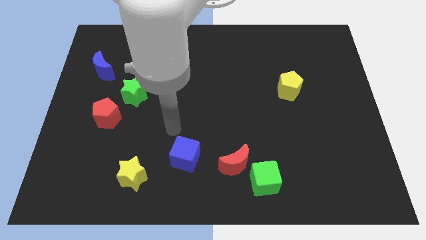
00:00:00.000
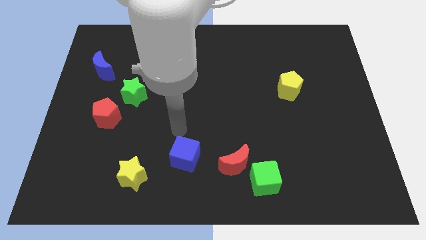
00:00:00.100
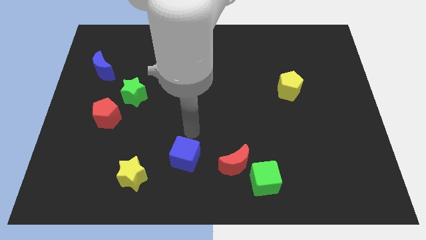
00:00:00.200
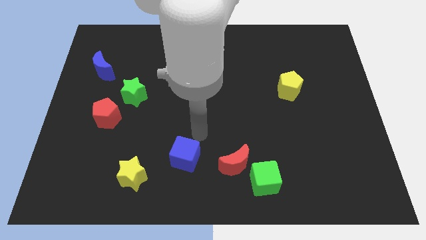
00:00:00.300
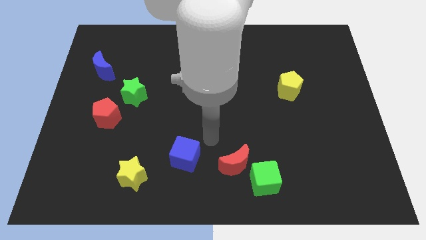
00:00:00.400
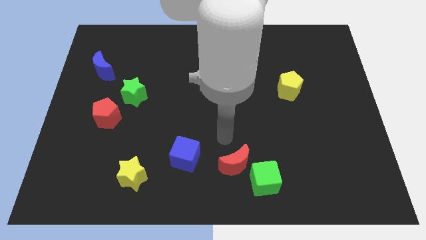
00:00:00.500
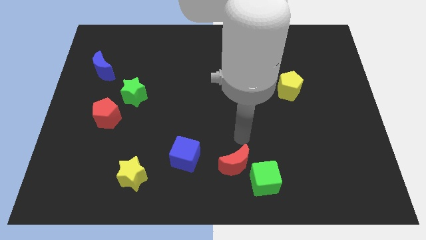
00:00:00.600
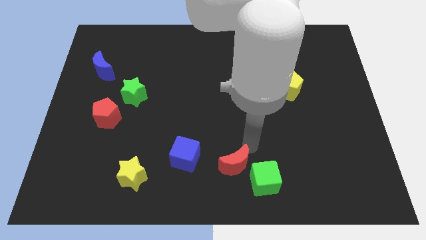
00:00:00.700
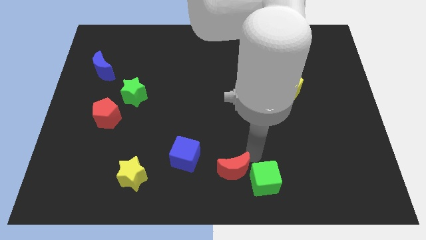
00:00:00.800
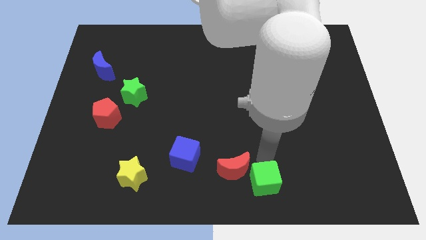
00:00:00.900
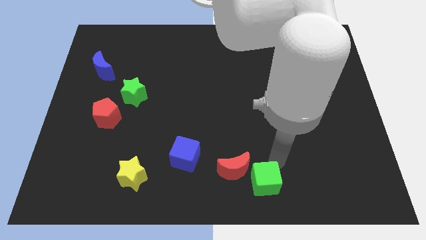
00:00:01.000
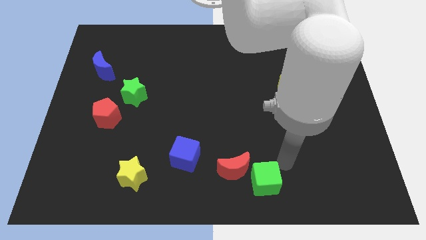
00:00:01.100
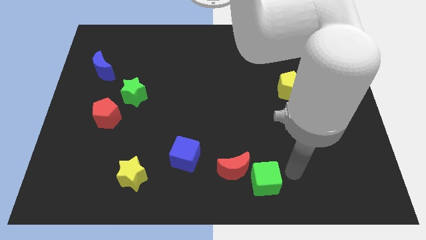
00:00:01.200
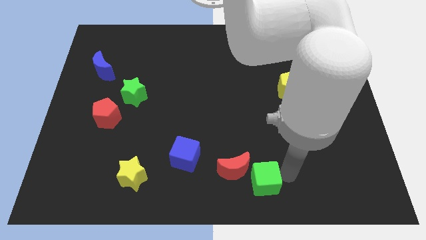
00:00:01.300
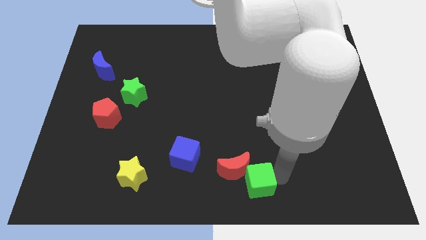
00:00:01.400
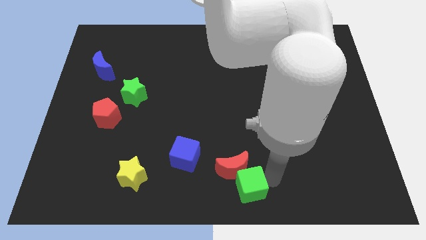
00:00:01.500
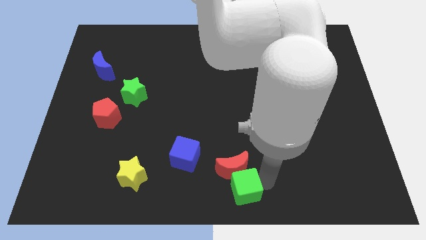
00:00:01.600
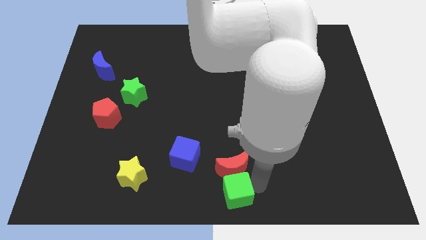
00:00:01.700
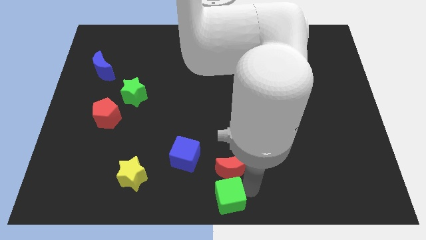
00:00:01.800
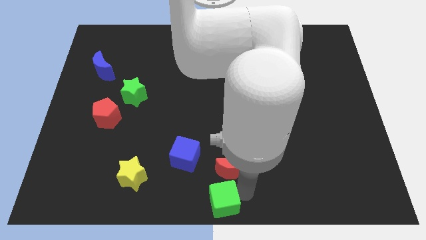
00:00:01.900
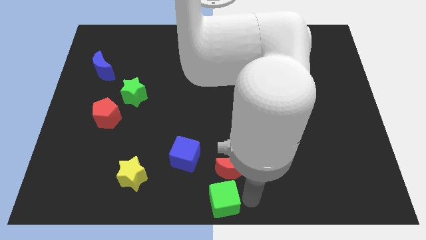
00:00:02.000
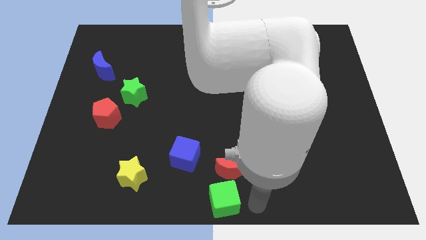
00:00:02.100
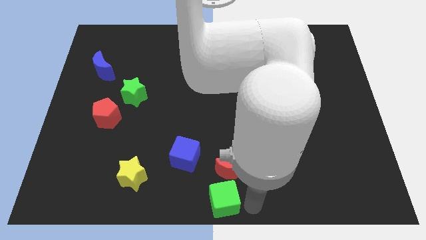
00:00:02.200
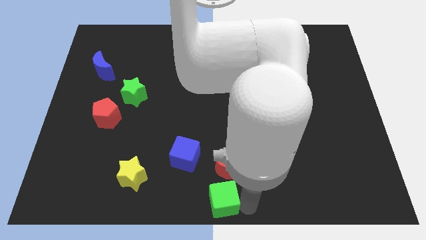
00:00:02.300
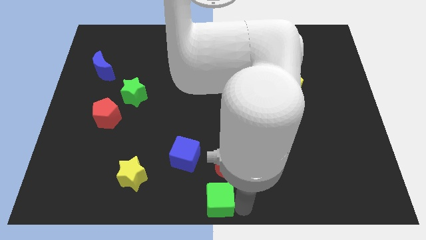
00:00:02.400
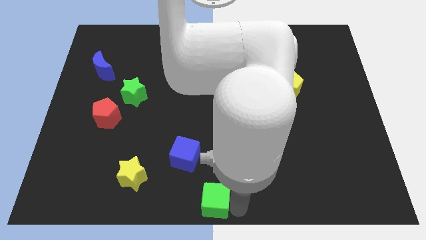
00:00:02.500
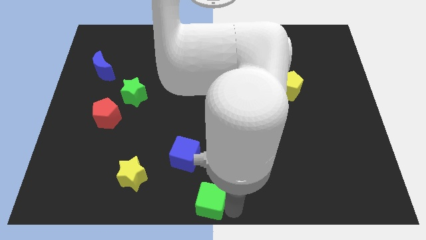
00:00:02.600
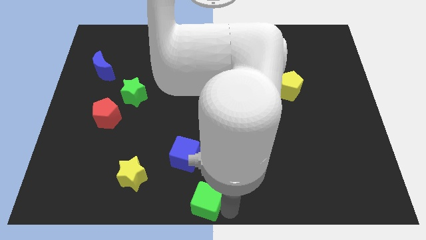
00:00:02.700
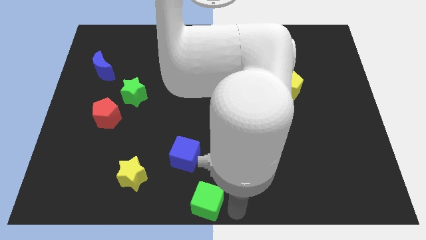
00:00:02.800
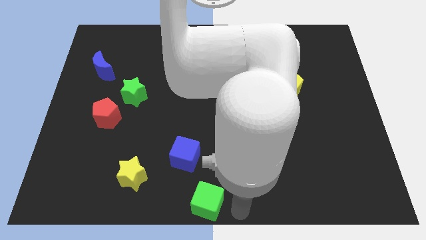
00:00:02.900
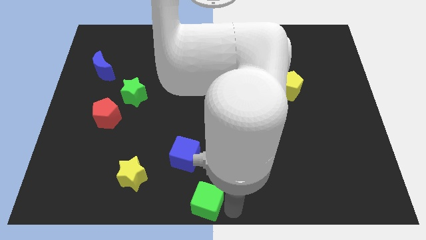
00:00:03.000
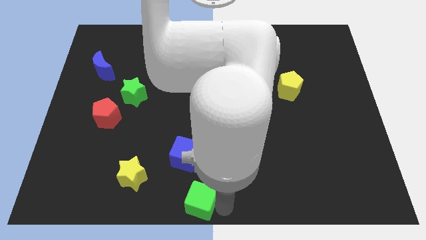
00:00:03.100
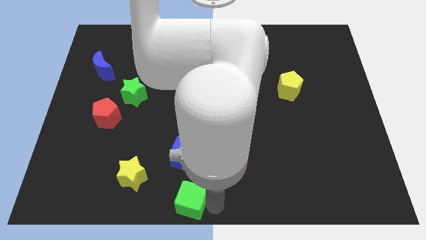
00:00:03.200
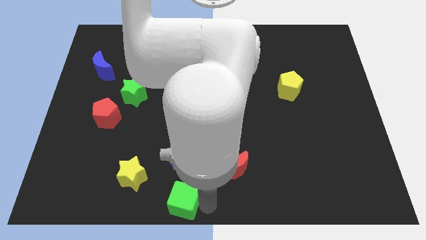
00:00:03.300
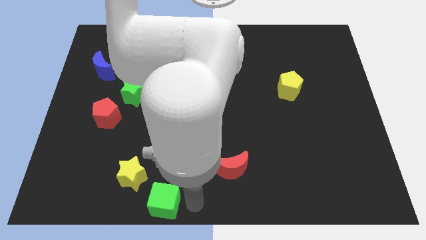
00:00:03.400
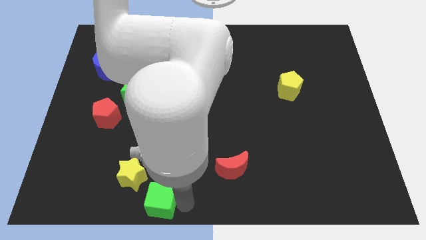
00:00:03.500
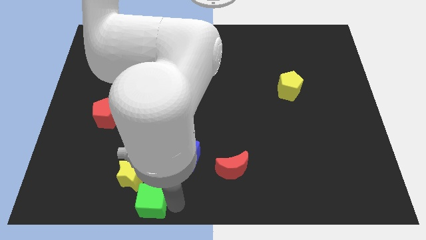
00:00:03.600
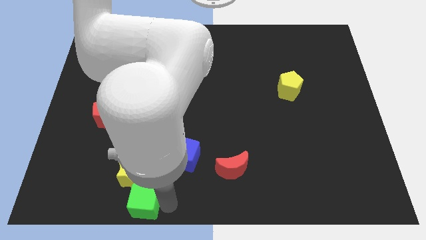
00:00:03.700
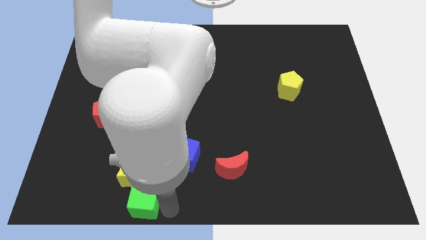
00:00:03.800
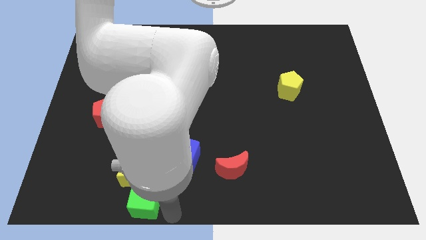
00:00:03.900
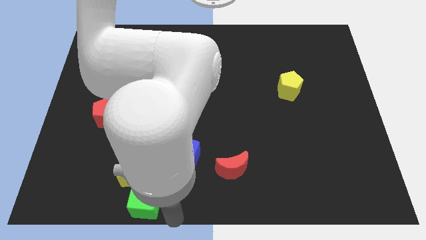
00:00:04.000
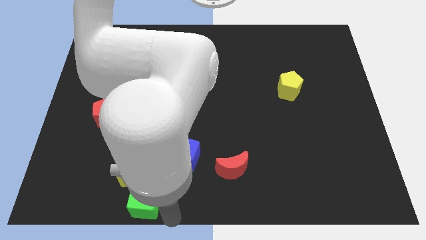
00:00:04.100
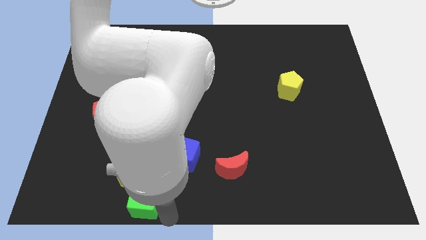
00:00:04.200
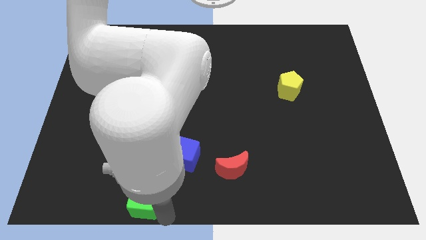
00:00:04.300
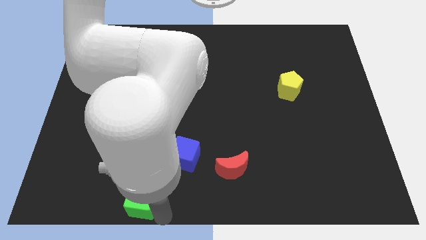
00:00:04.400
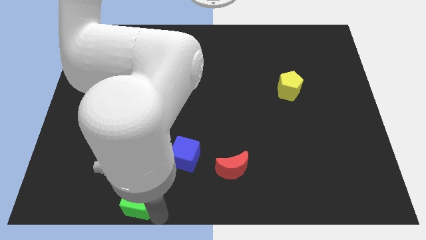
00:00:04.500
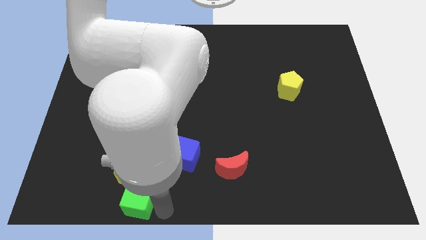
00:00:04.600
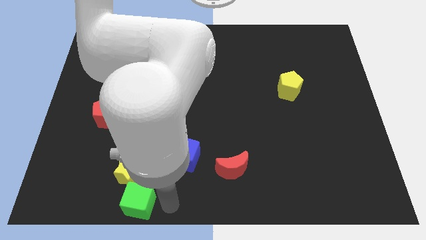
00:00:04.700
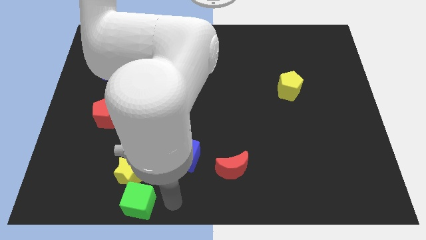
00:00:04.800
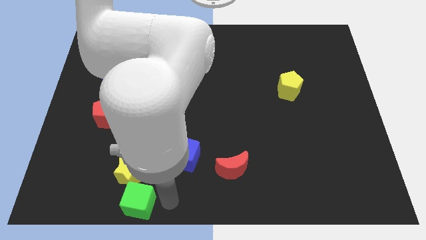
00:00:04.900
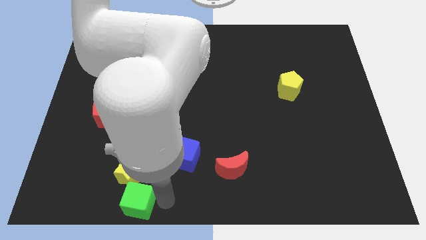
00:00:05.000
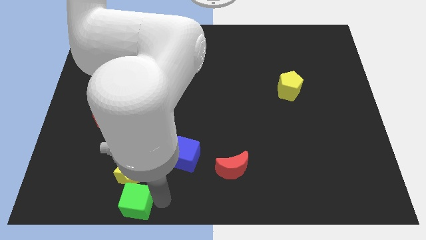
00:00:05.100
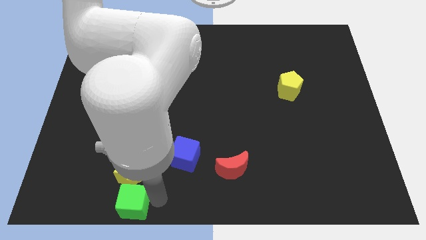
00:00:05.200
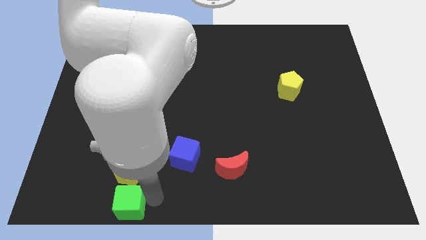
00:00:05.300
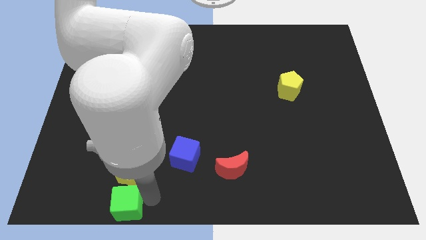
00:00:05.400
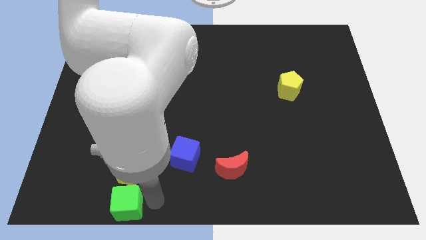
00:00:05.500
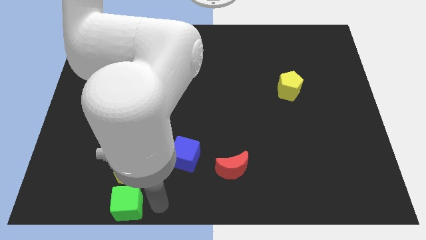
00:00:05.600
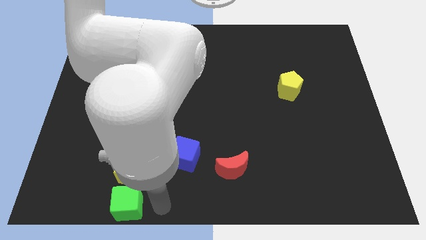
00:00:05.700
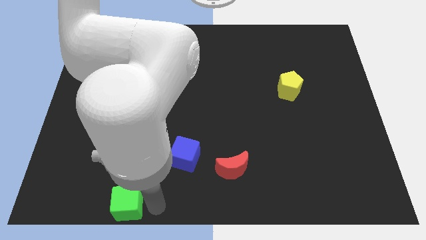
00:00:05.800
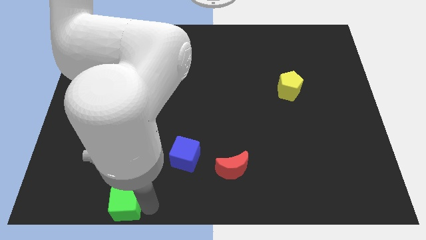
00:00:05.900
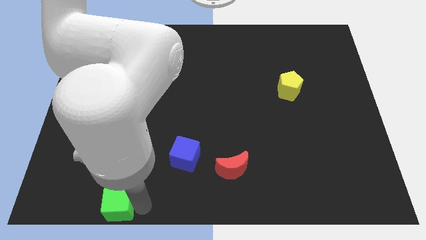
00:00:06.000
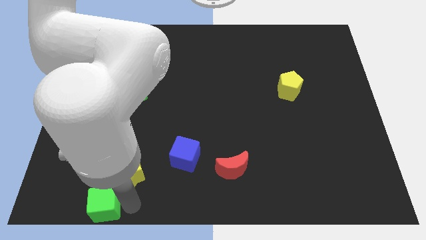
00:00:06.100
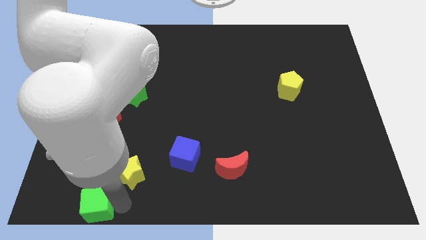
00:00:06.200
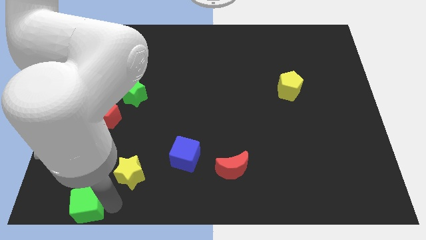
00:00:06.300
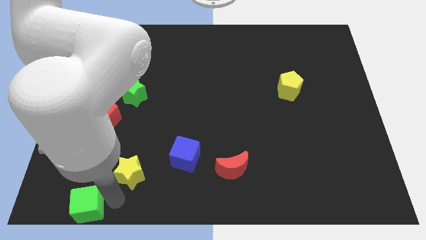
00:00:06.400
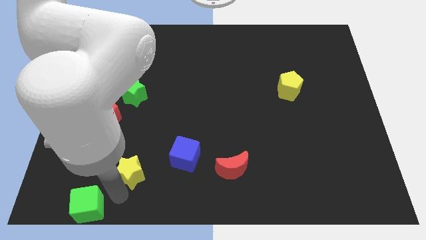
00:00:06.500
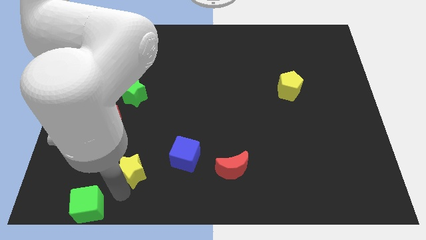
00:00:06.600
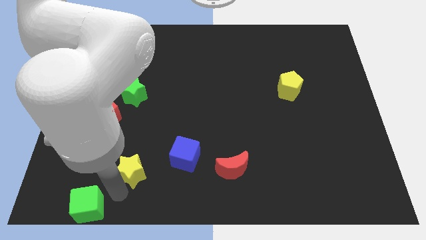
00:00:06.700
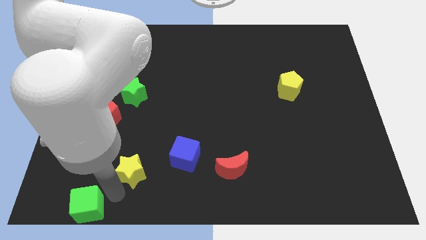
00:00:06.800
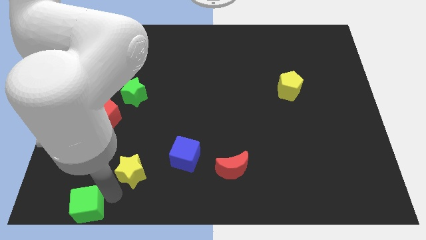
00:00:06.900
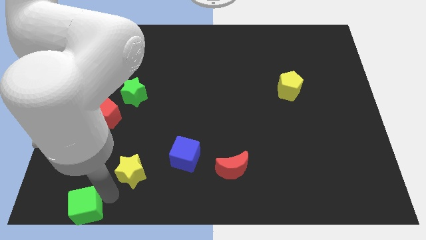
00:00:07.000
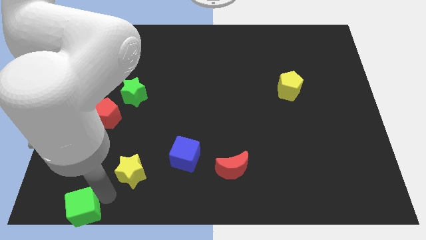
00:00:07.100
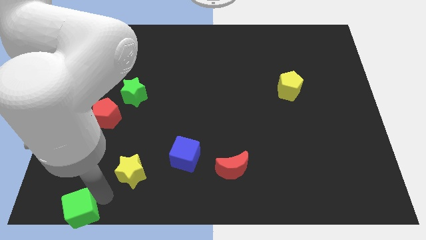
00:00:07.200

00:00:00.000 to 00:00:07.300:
put the green cube to the bottom left of the board
